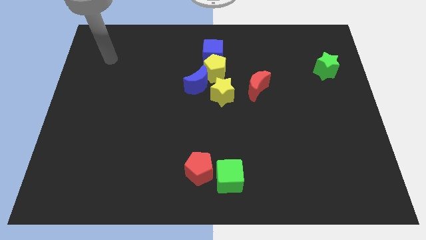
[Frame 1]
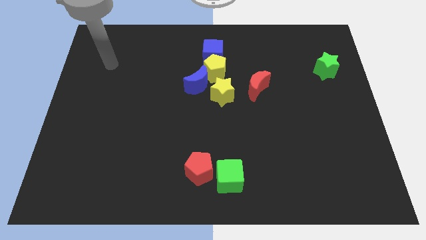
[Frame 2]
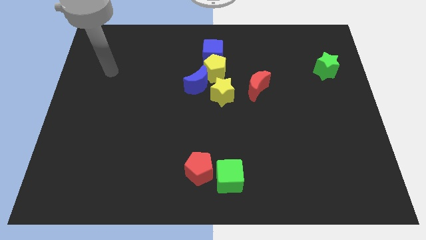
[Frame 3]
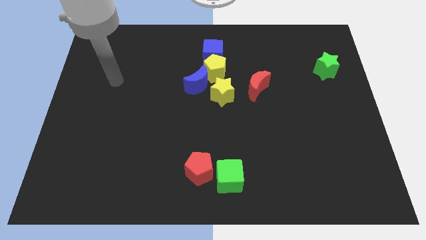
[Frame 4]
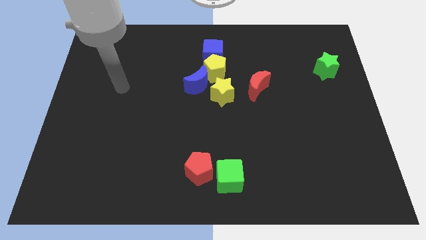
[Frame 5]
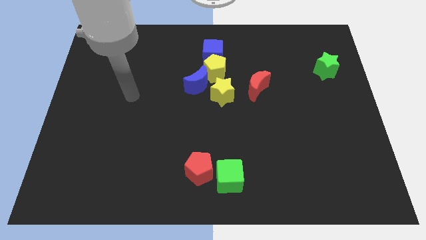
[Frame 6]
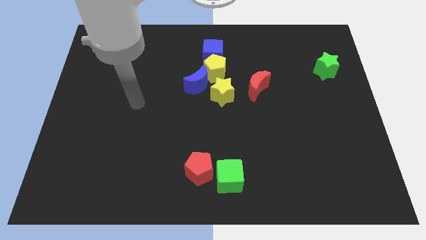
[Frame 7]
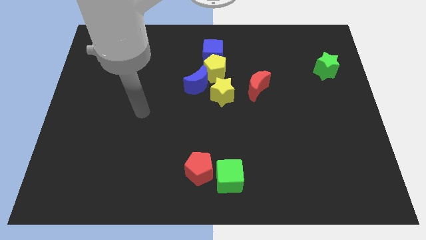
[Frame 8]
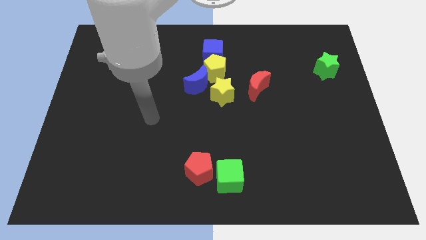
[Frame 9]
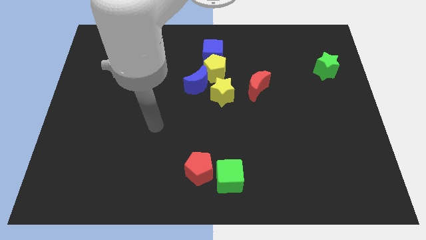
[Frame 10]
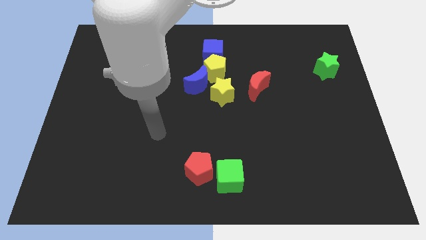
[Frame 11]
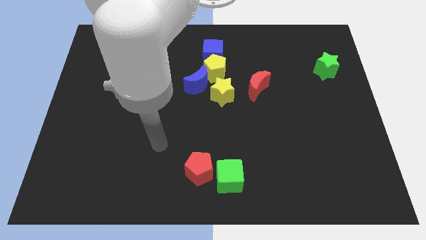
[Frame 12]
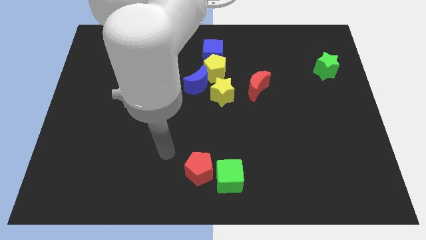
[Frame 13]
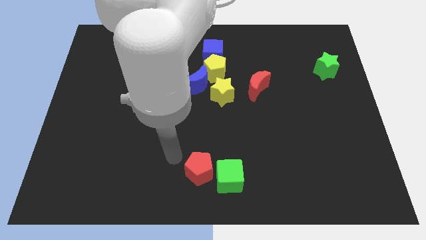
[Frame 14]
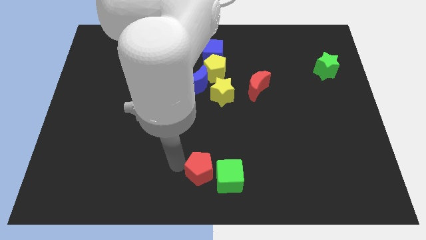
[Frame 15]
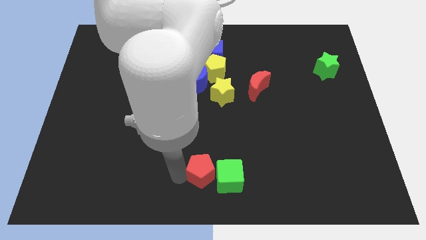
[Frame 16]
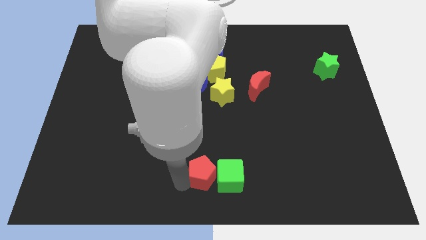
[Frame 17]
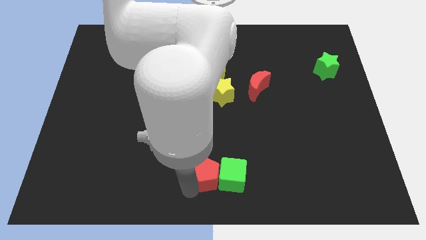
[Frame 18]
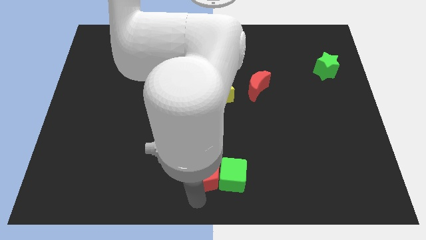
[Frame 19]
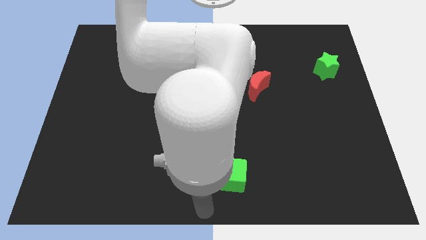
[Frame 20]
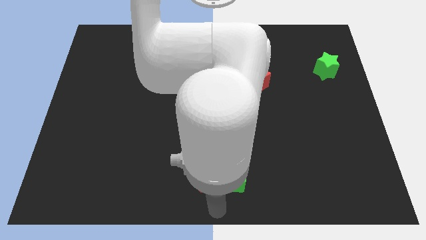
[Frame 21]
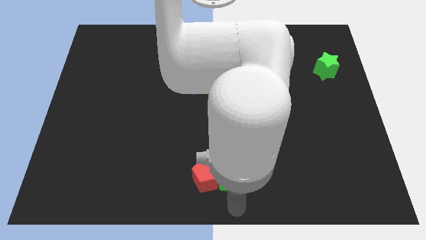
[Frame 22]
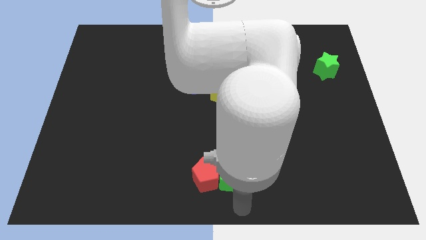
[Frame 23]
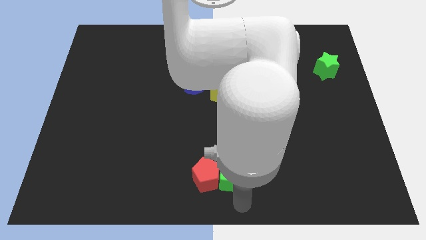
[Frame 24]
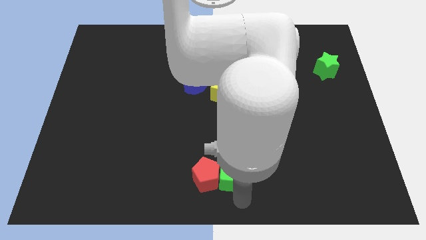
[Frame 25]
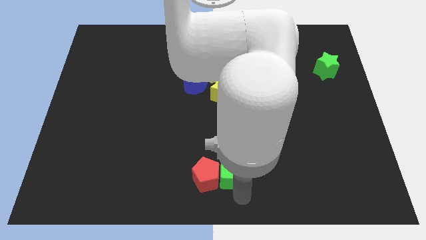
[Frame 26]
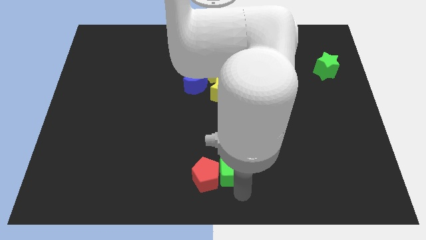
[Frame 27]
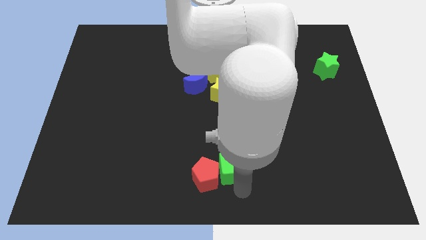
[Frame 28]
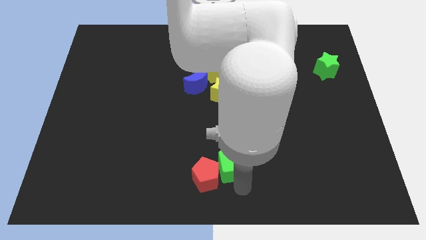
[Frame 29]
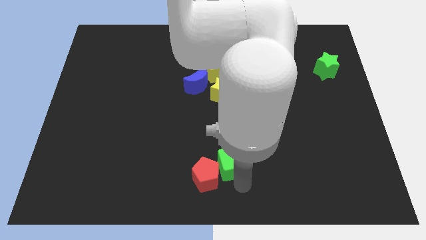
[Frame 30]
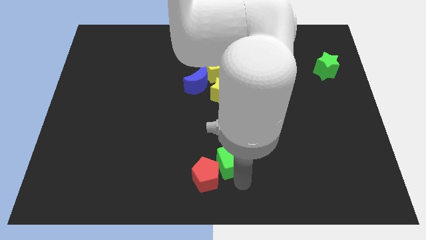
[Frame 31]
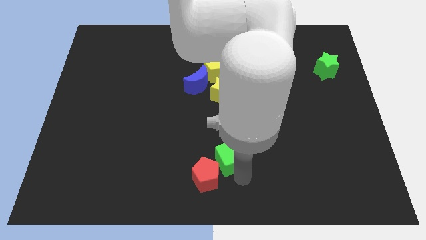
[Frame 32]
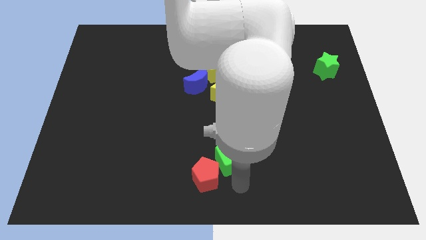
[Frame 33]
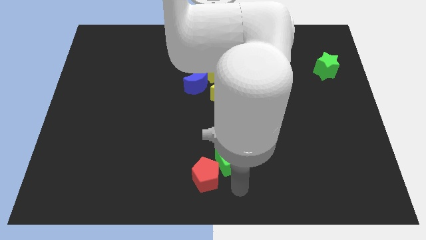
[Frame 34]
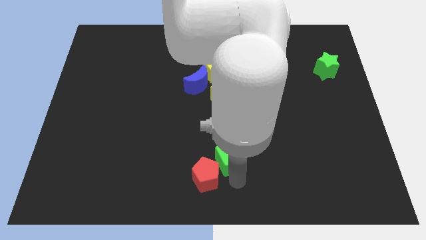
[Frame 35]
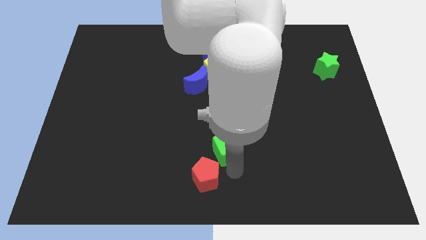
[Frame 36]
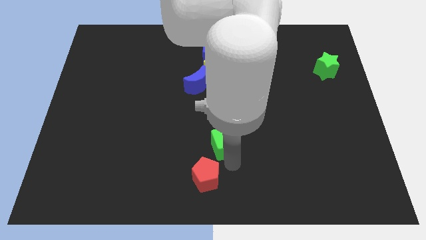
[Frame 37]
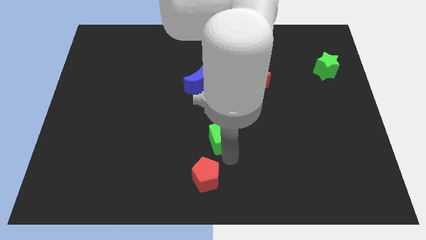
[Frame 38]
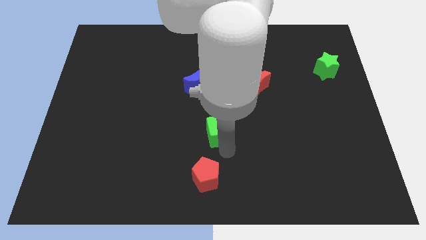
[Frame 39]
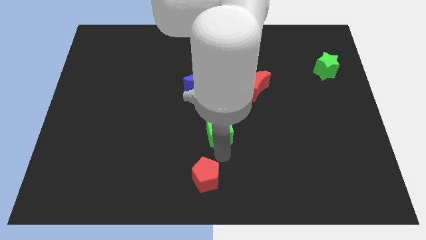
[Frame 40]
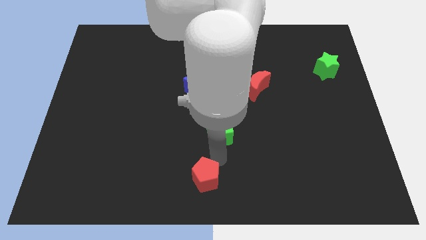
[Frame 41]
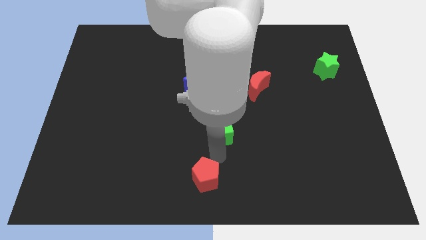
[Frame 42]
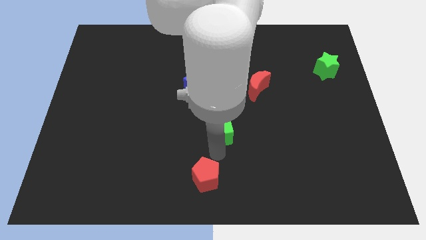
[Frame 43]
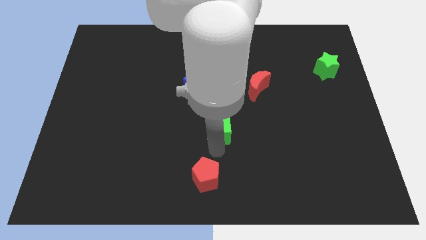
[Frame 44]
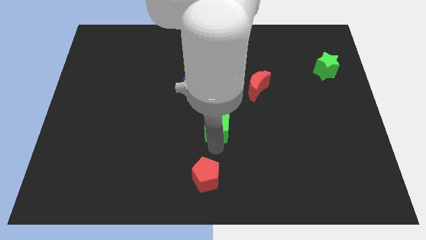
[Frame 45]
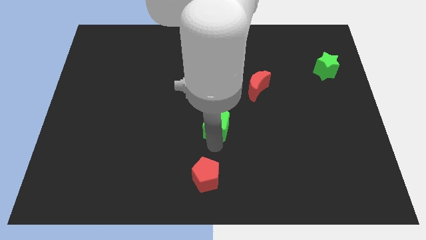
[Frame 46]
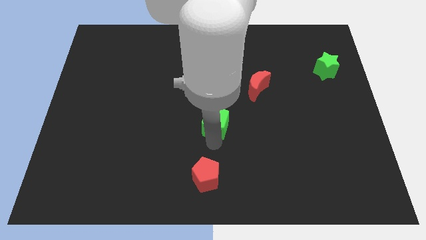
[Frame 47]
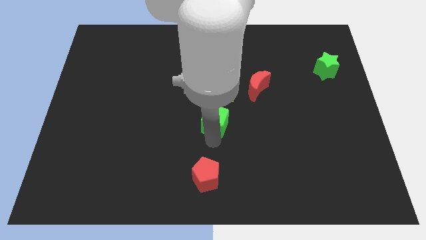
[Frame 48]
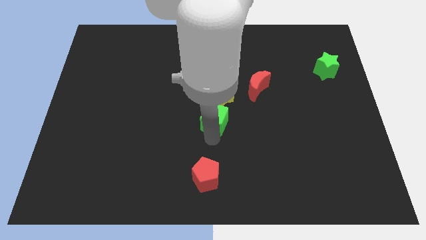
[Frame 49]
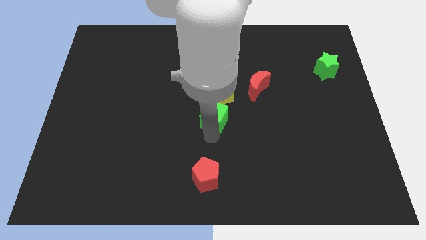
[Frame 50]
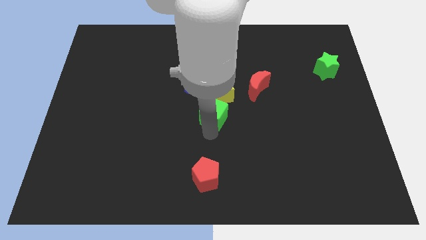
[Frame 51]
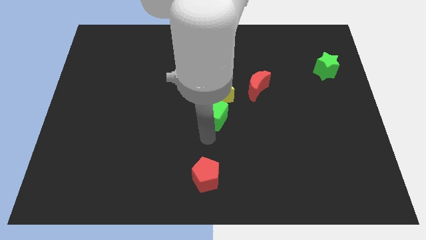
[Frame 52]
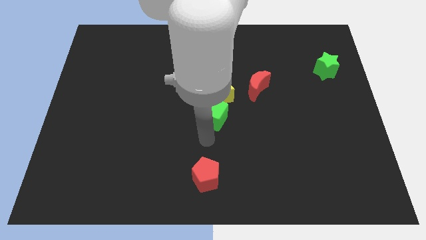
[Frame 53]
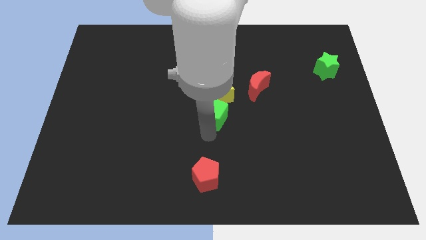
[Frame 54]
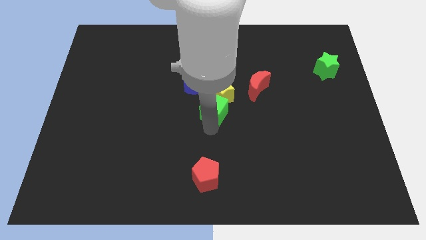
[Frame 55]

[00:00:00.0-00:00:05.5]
move the green cube next to the yellow star

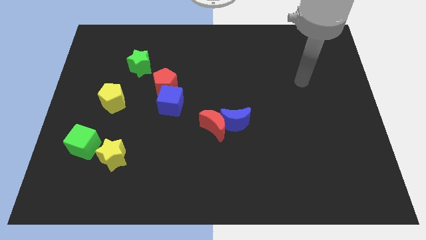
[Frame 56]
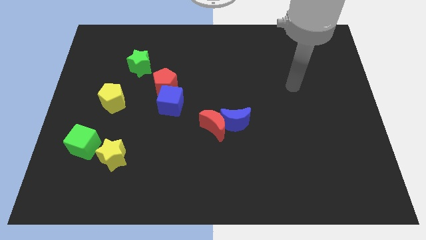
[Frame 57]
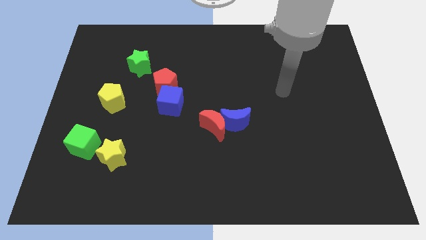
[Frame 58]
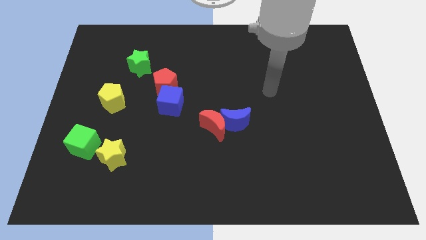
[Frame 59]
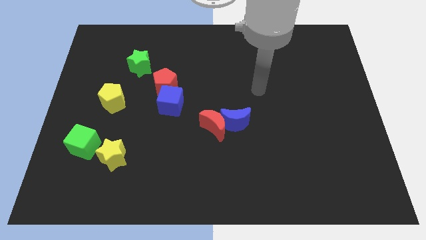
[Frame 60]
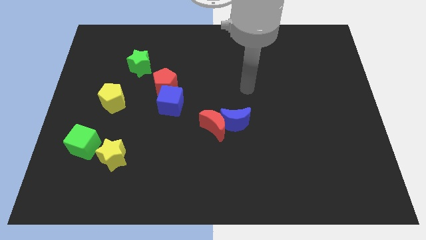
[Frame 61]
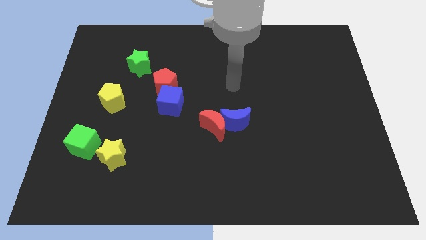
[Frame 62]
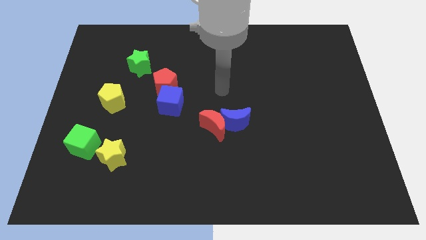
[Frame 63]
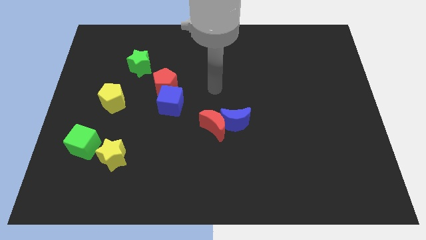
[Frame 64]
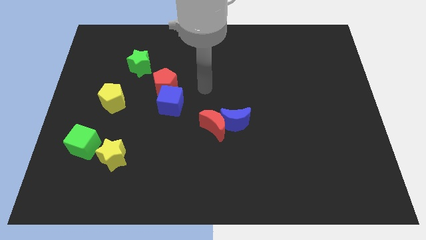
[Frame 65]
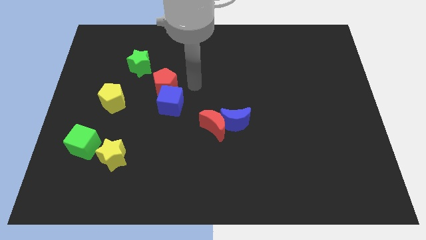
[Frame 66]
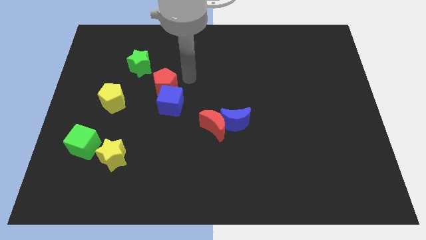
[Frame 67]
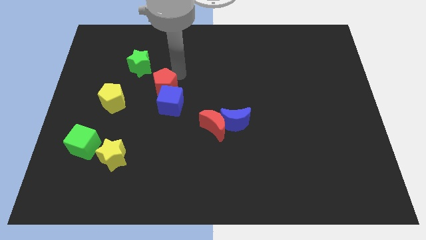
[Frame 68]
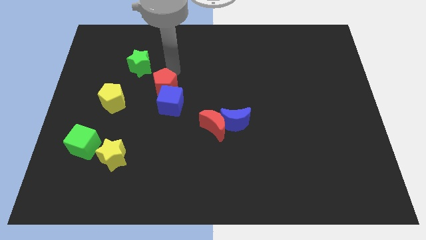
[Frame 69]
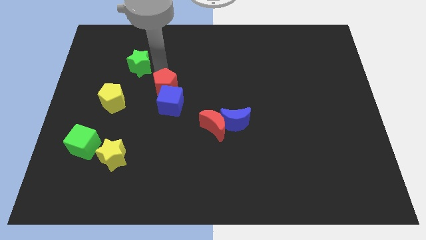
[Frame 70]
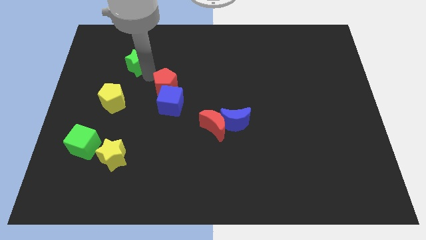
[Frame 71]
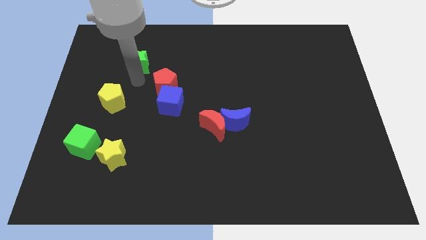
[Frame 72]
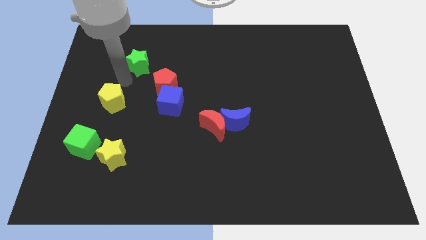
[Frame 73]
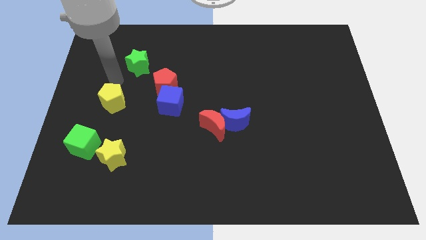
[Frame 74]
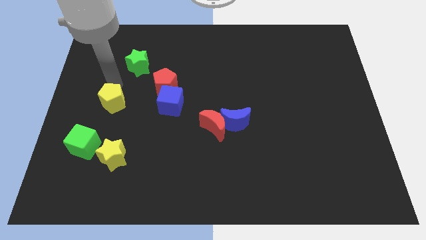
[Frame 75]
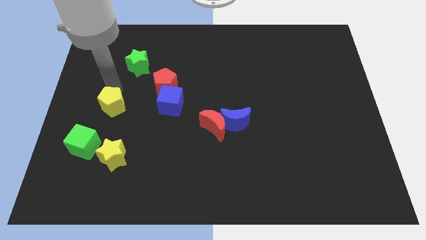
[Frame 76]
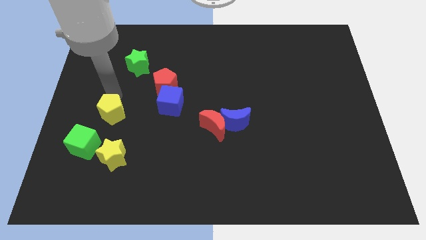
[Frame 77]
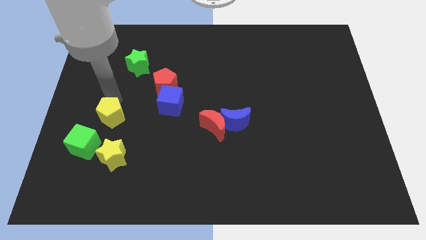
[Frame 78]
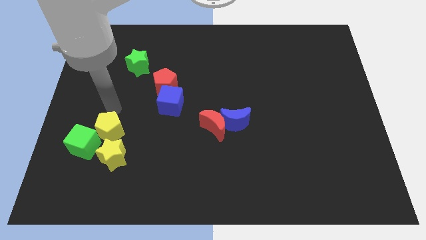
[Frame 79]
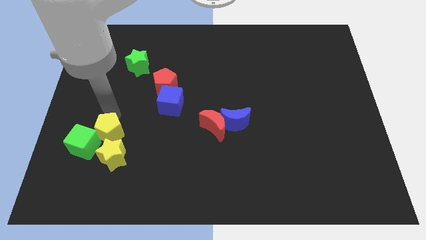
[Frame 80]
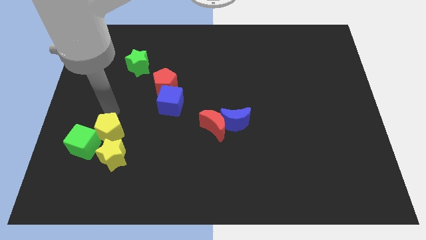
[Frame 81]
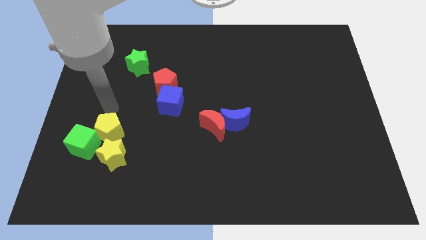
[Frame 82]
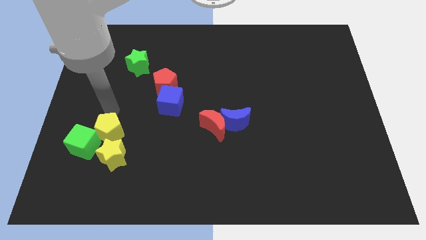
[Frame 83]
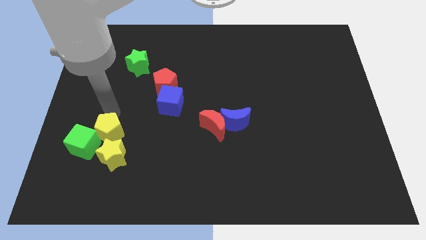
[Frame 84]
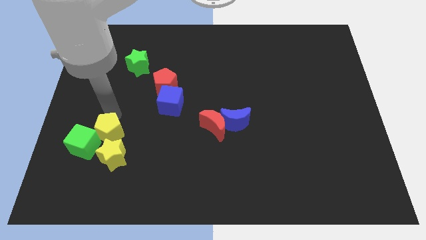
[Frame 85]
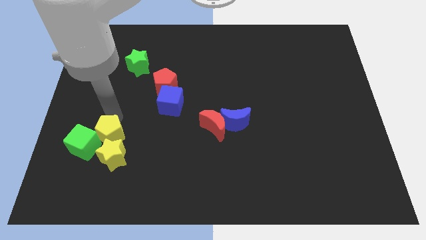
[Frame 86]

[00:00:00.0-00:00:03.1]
put the yellow pentagon towards the yellow star
